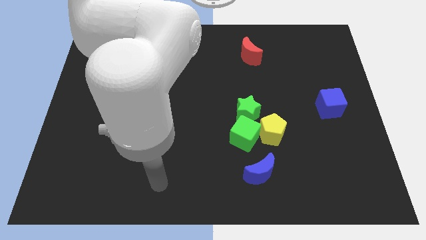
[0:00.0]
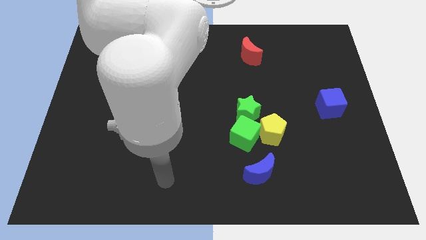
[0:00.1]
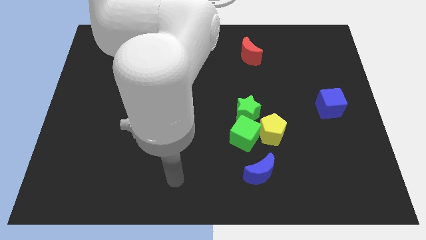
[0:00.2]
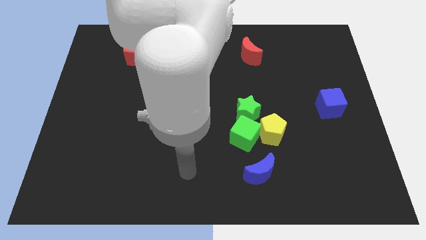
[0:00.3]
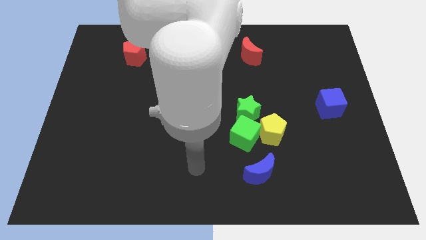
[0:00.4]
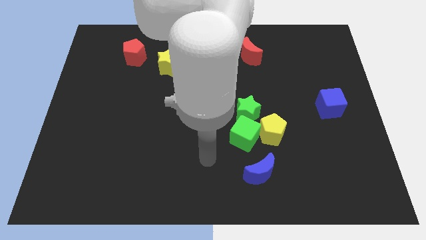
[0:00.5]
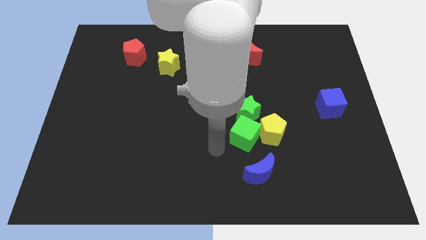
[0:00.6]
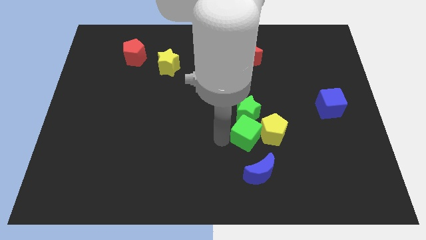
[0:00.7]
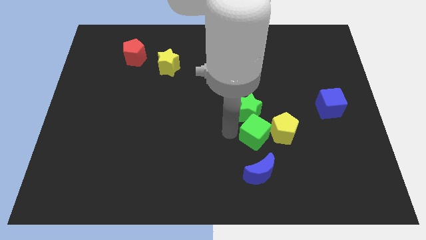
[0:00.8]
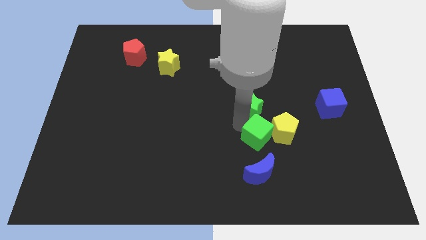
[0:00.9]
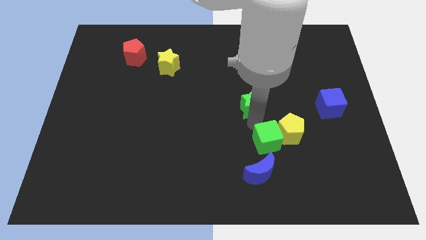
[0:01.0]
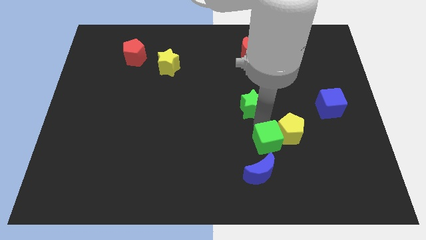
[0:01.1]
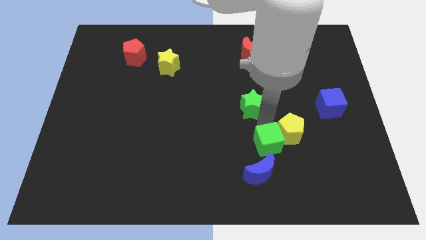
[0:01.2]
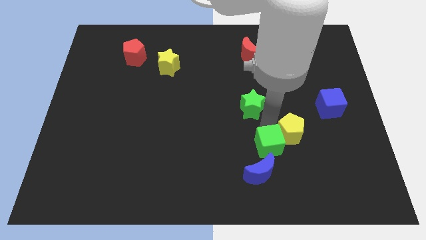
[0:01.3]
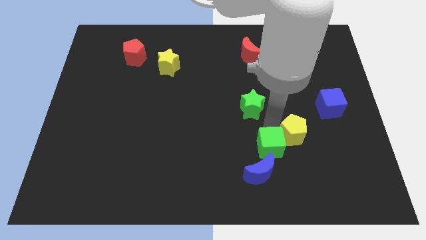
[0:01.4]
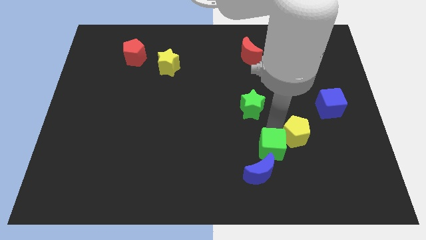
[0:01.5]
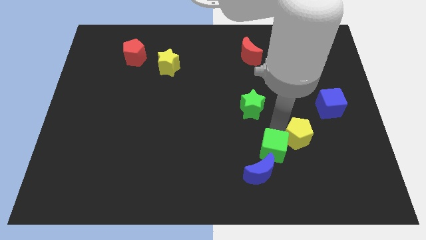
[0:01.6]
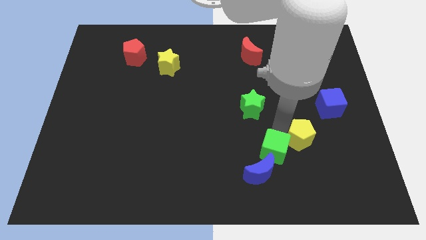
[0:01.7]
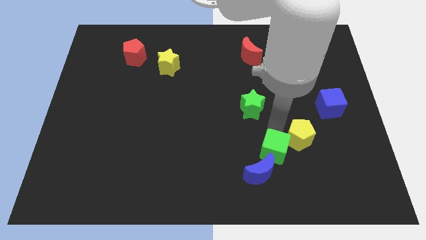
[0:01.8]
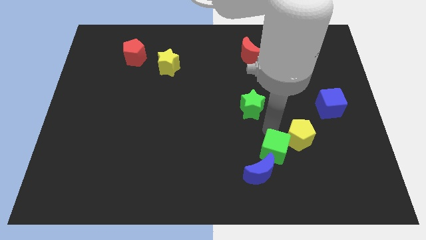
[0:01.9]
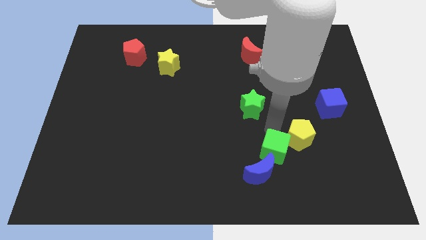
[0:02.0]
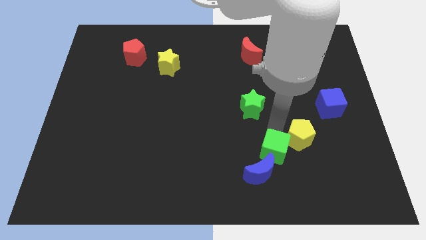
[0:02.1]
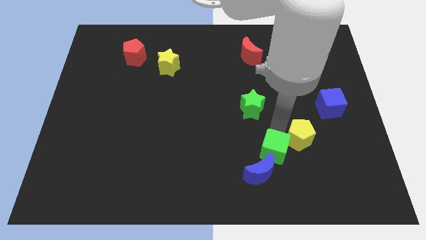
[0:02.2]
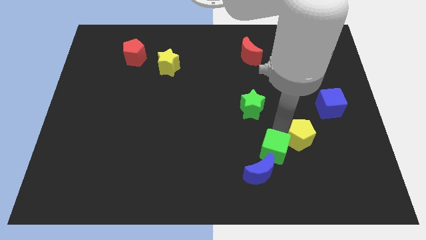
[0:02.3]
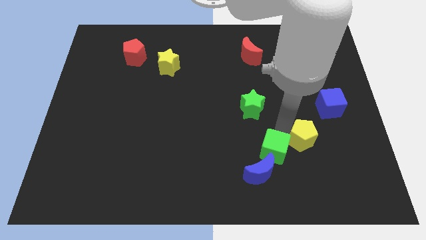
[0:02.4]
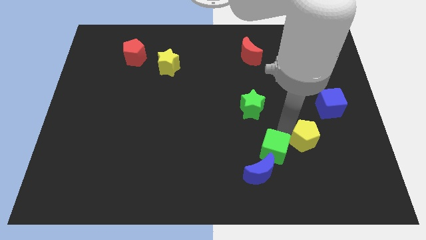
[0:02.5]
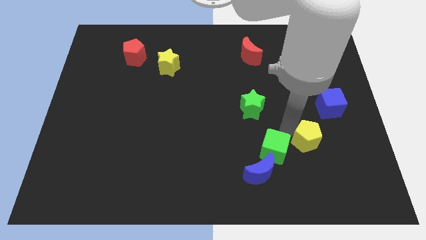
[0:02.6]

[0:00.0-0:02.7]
separate the yellow pentagon from the green cube and green star

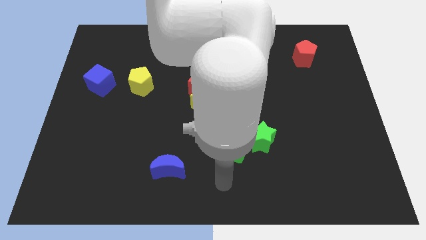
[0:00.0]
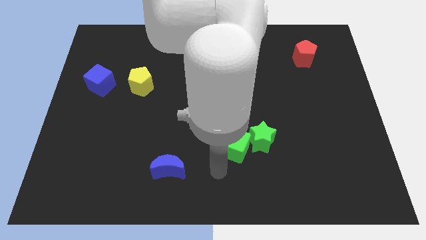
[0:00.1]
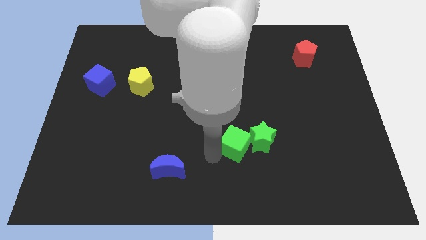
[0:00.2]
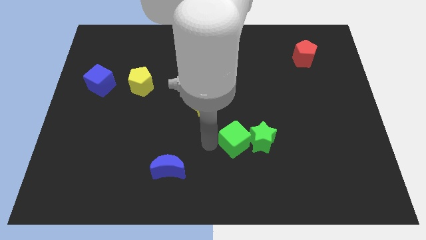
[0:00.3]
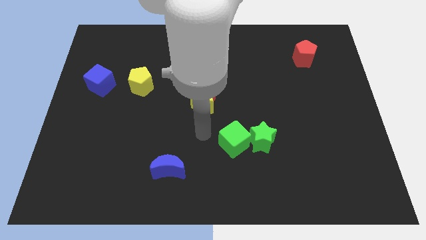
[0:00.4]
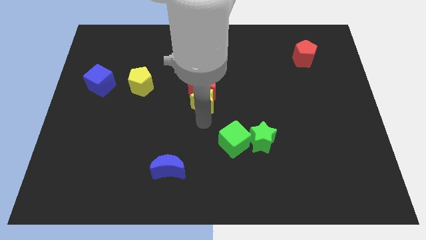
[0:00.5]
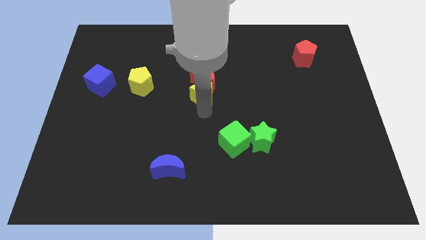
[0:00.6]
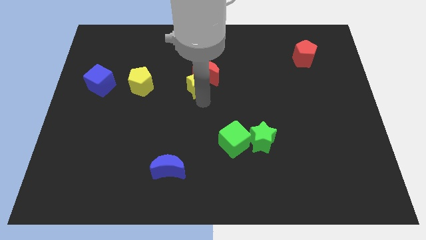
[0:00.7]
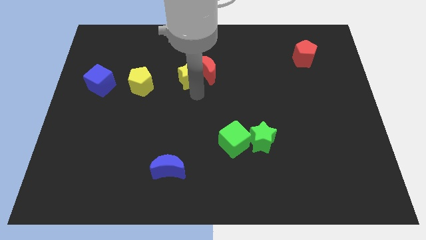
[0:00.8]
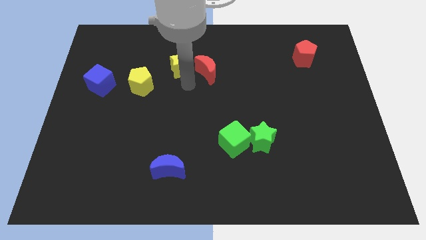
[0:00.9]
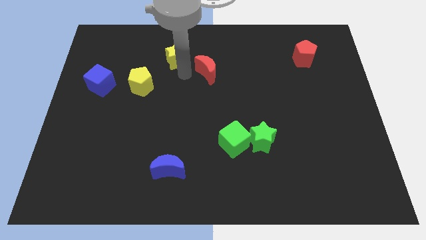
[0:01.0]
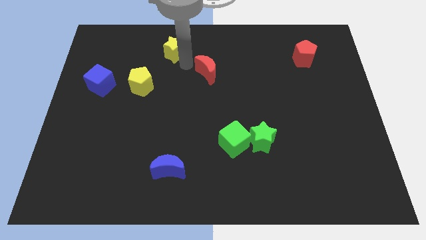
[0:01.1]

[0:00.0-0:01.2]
separate the red moon from the yellow star

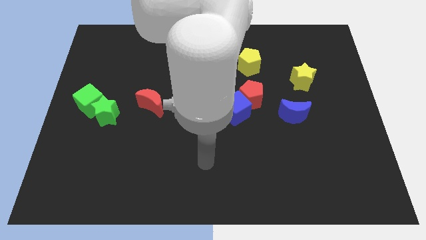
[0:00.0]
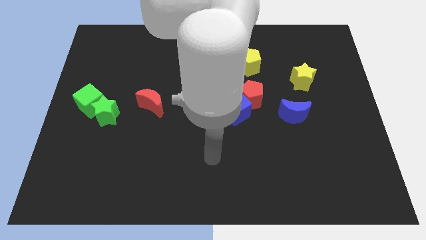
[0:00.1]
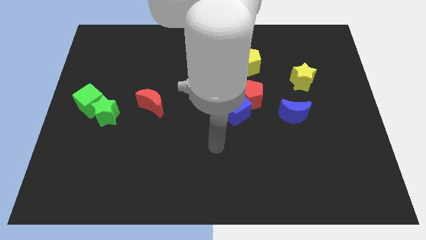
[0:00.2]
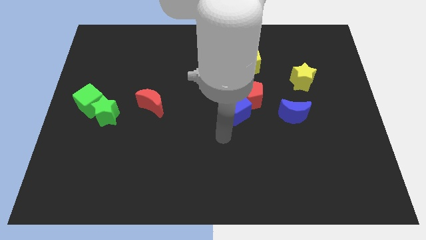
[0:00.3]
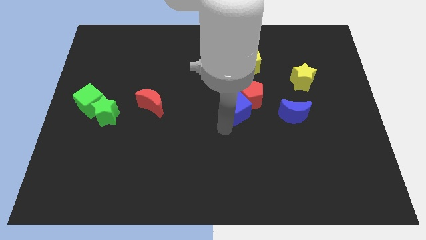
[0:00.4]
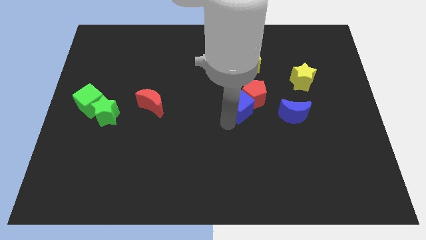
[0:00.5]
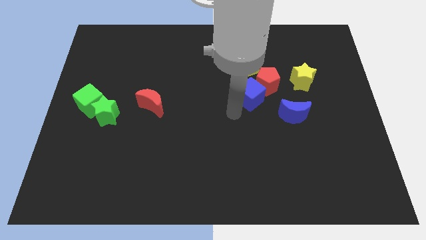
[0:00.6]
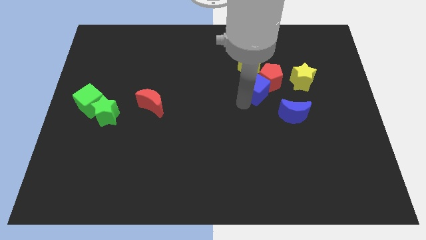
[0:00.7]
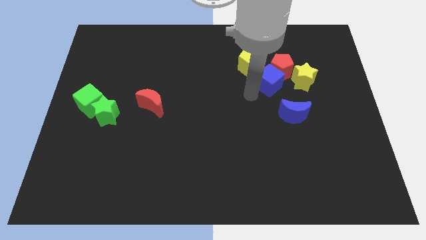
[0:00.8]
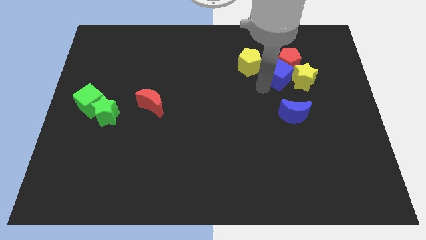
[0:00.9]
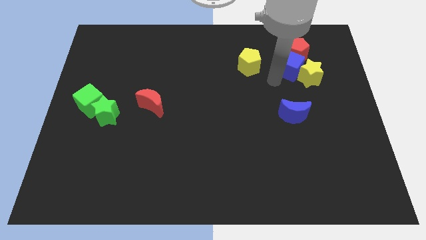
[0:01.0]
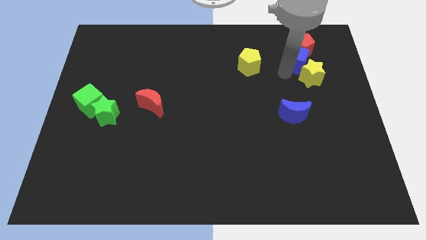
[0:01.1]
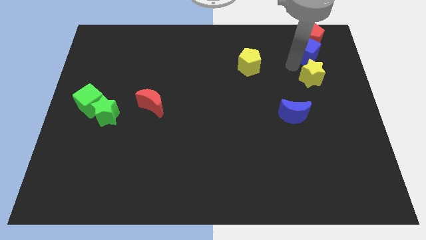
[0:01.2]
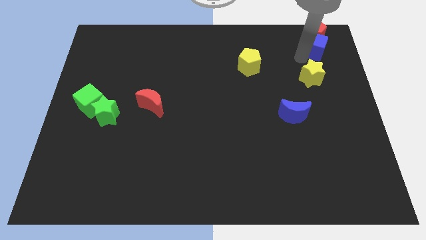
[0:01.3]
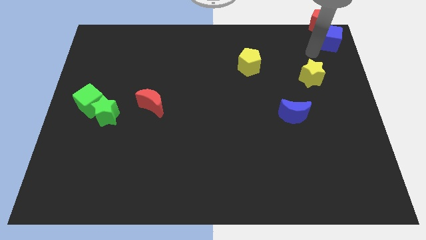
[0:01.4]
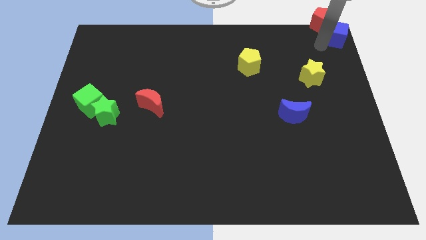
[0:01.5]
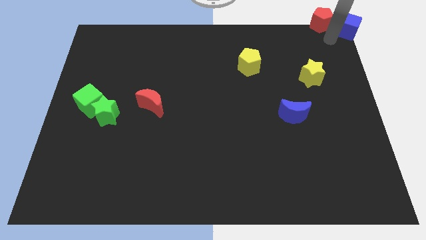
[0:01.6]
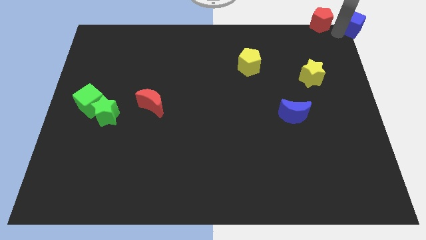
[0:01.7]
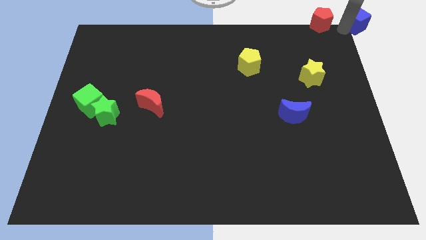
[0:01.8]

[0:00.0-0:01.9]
separate the red pentagon from the blue cube

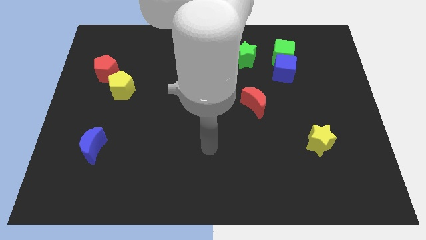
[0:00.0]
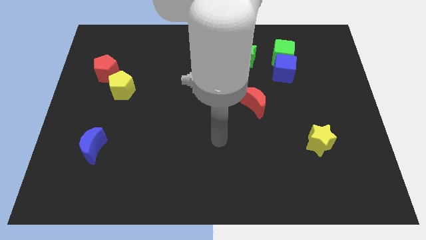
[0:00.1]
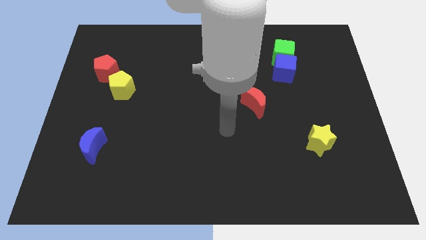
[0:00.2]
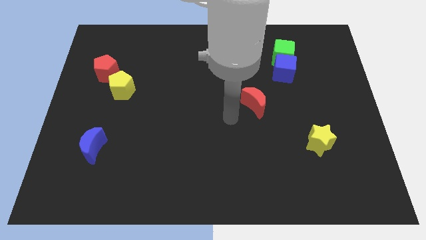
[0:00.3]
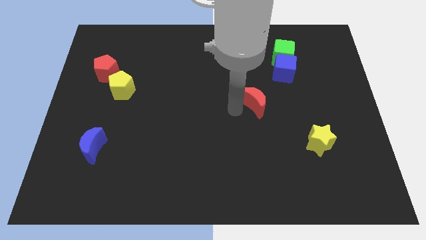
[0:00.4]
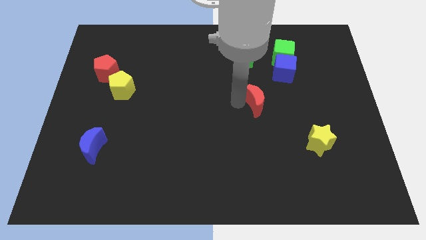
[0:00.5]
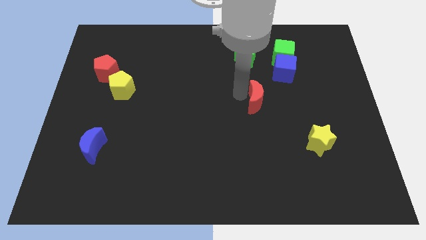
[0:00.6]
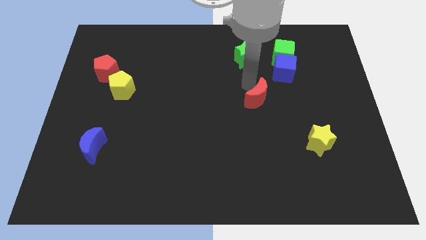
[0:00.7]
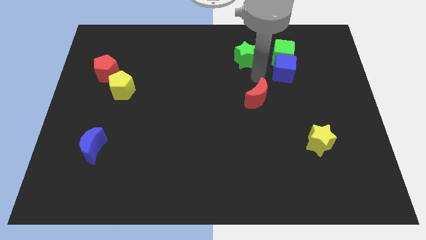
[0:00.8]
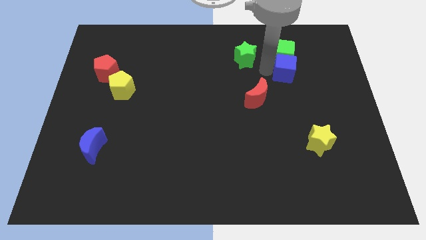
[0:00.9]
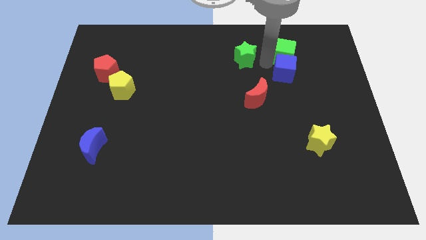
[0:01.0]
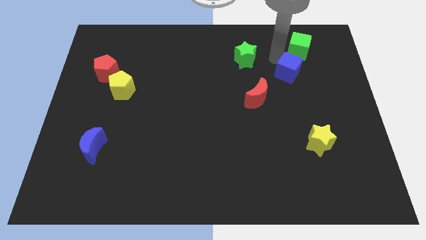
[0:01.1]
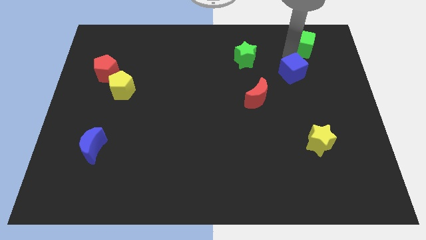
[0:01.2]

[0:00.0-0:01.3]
move the blue cube away from the green cube

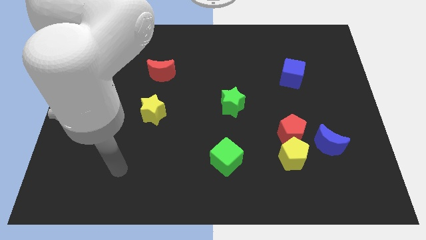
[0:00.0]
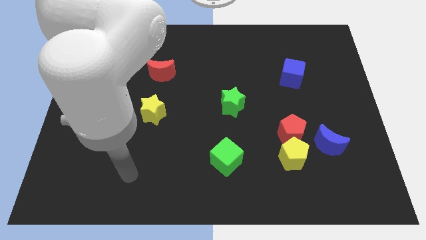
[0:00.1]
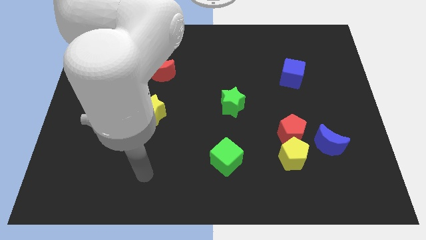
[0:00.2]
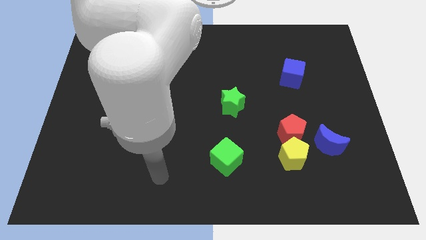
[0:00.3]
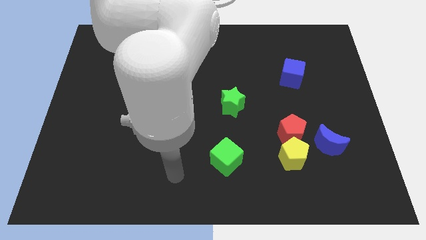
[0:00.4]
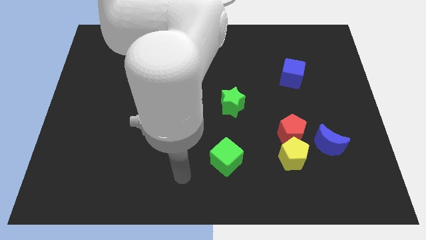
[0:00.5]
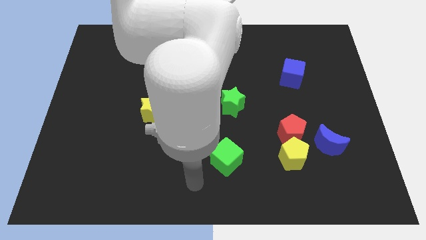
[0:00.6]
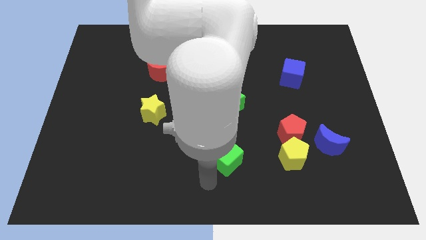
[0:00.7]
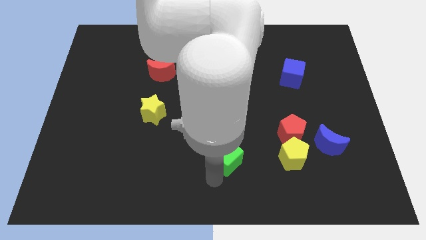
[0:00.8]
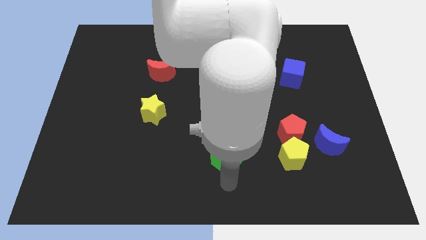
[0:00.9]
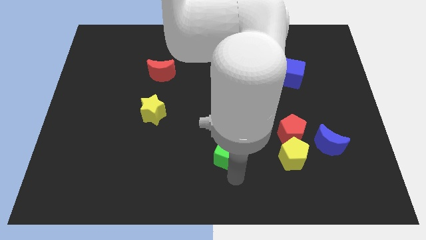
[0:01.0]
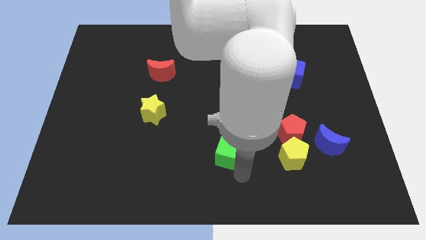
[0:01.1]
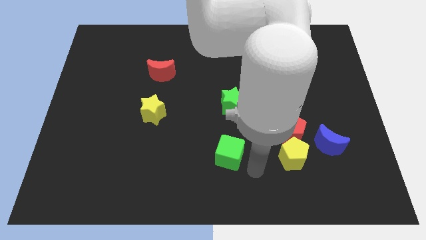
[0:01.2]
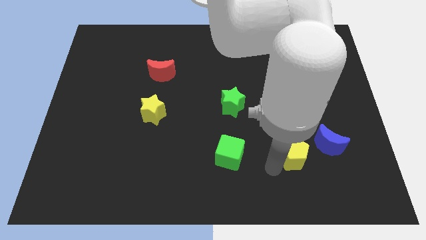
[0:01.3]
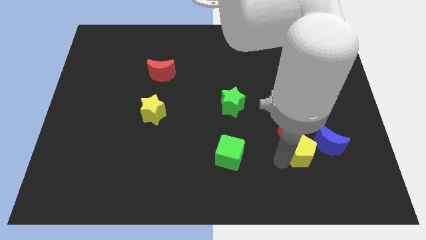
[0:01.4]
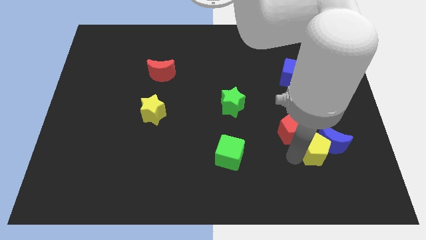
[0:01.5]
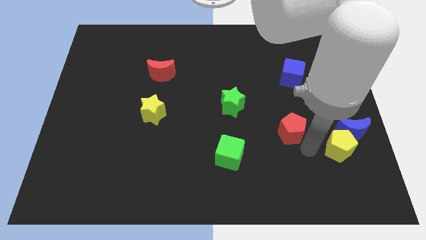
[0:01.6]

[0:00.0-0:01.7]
move the red pentagon away from the yellow pentagon and blue moon

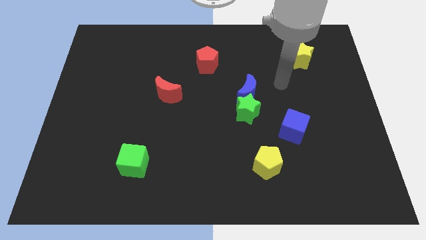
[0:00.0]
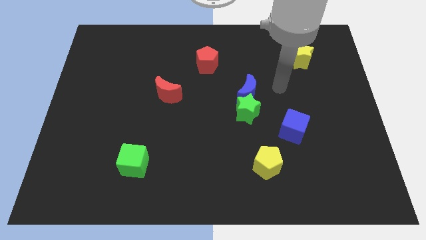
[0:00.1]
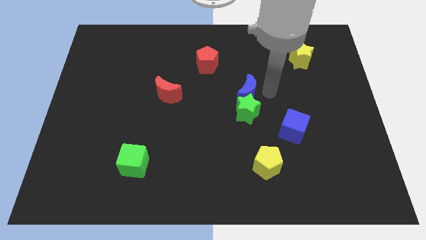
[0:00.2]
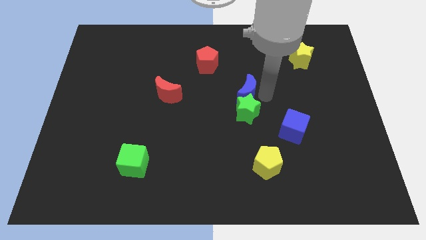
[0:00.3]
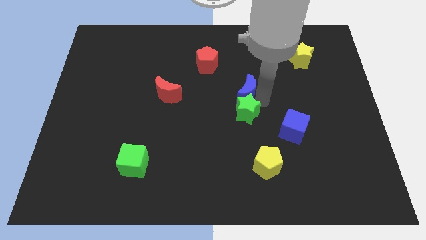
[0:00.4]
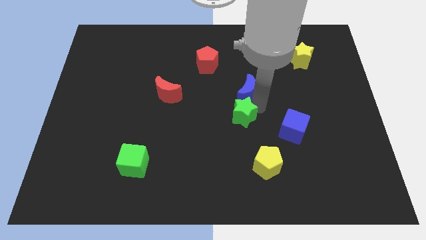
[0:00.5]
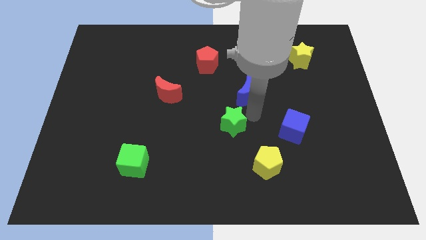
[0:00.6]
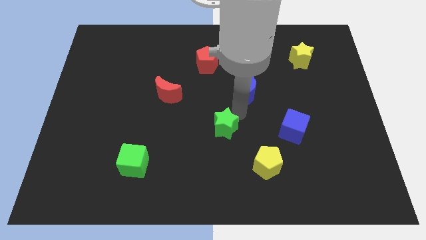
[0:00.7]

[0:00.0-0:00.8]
pull the blue moon apart from the green star
